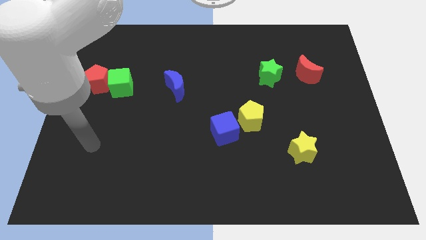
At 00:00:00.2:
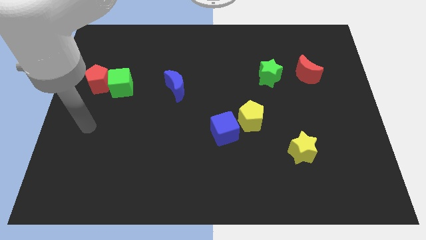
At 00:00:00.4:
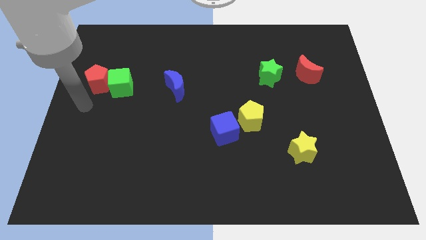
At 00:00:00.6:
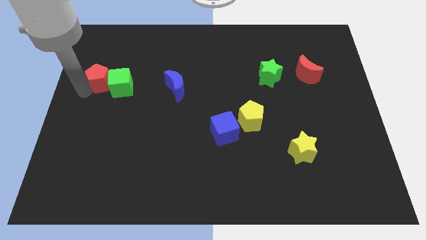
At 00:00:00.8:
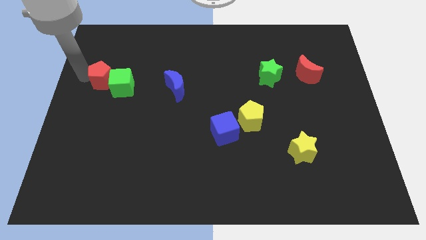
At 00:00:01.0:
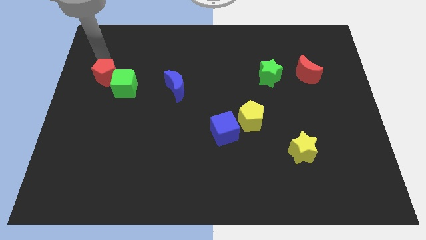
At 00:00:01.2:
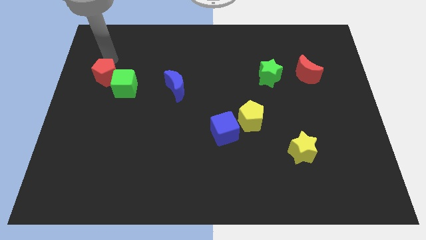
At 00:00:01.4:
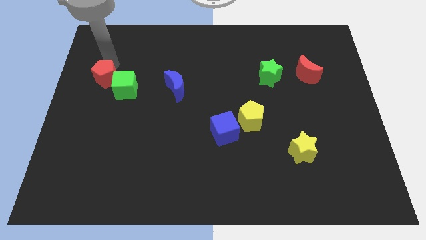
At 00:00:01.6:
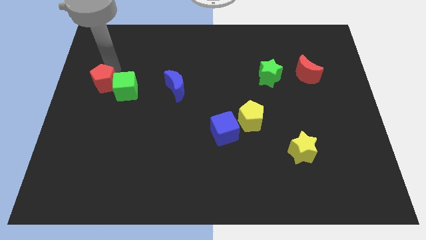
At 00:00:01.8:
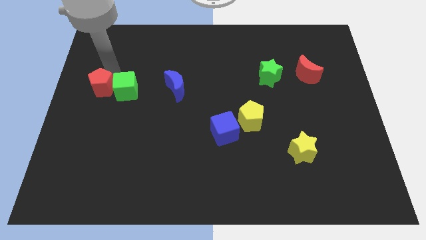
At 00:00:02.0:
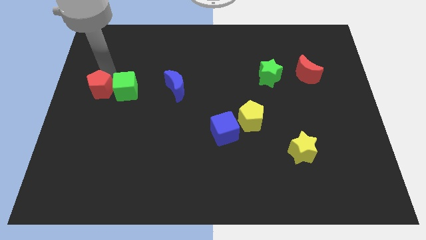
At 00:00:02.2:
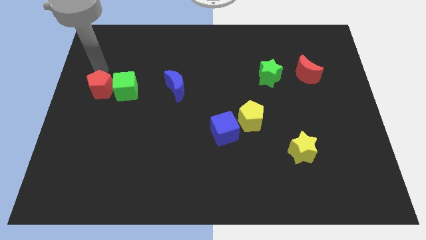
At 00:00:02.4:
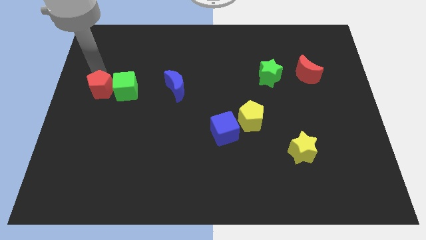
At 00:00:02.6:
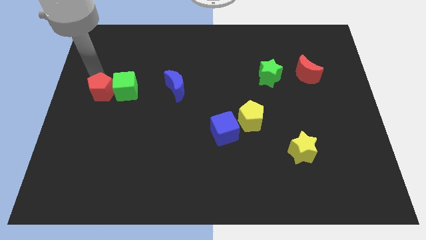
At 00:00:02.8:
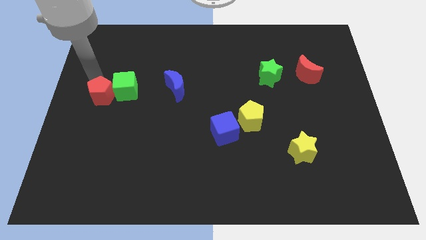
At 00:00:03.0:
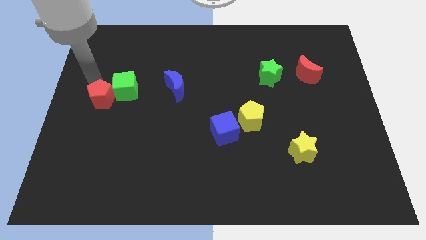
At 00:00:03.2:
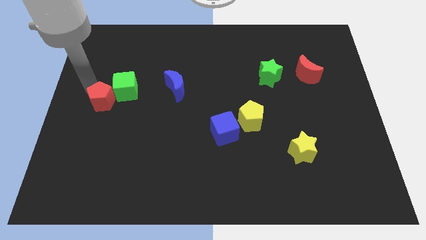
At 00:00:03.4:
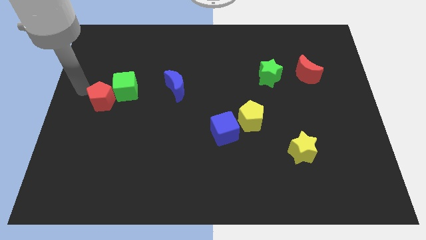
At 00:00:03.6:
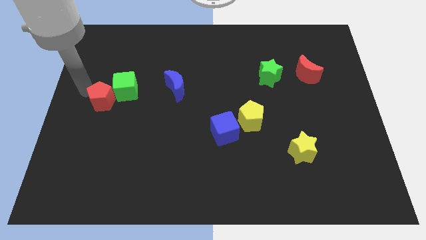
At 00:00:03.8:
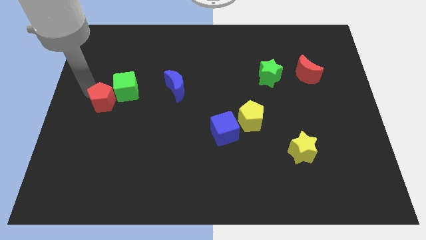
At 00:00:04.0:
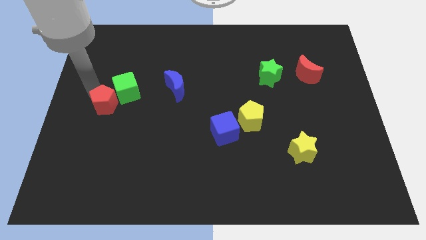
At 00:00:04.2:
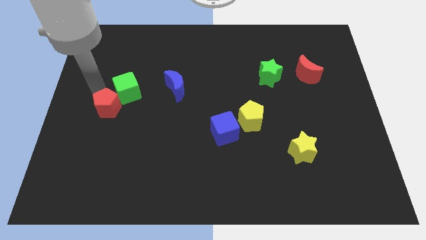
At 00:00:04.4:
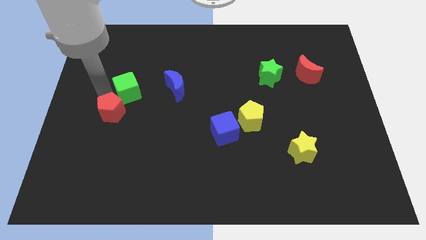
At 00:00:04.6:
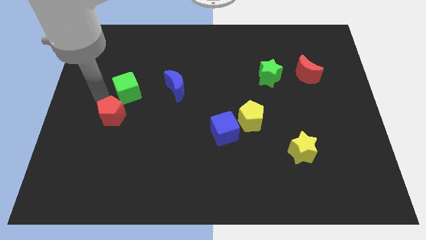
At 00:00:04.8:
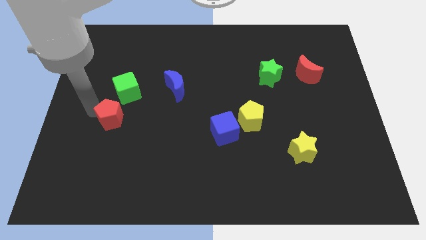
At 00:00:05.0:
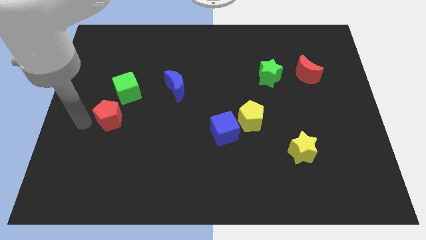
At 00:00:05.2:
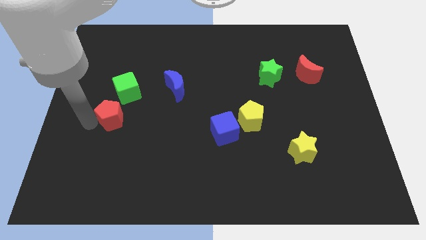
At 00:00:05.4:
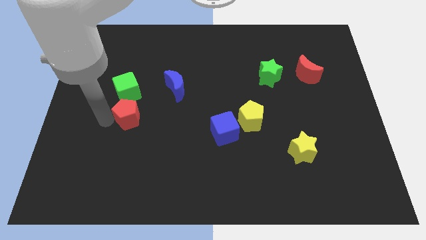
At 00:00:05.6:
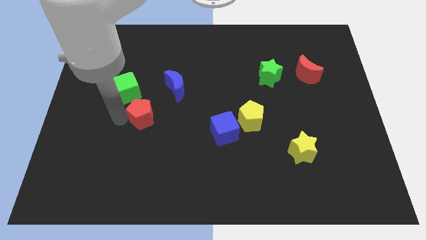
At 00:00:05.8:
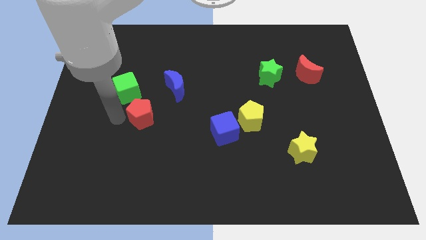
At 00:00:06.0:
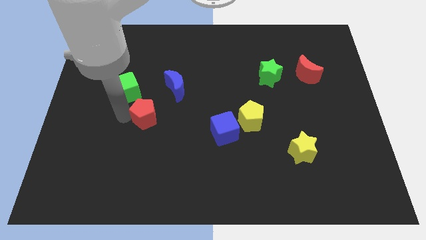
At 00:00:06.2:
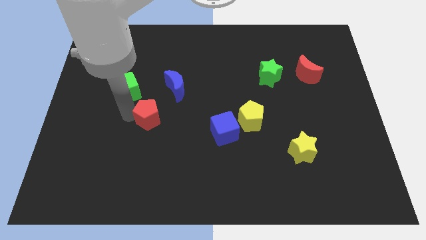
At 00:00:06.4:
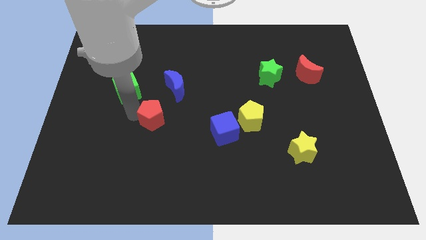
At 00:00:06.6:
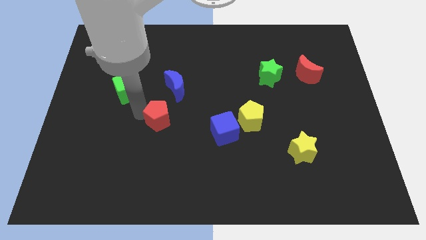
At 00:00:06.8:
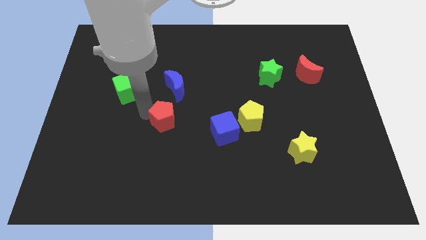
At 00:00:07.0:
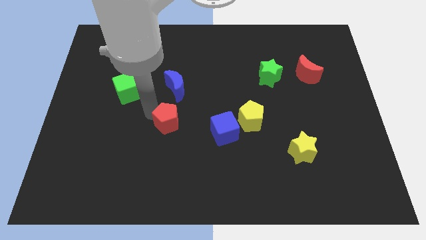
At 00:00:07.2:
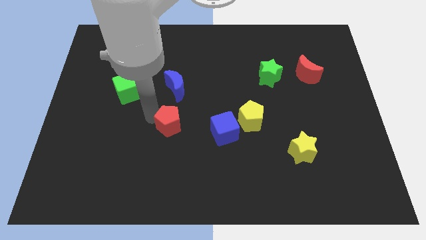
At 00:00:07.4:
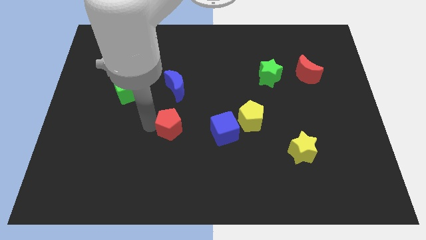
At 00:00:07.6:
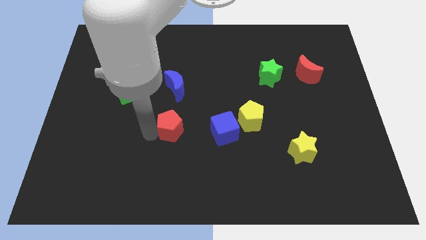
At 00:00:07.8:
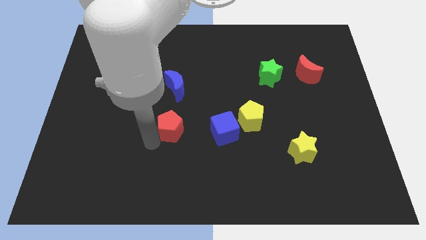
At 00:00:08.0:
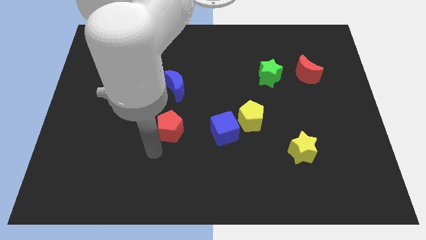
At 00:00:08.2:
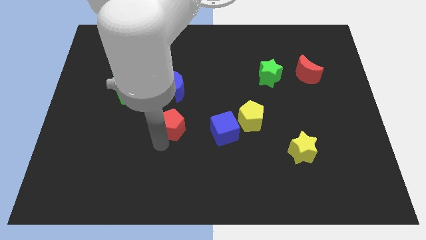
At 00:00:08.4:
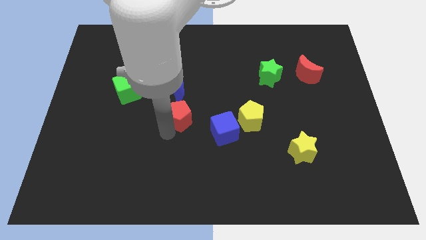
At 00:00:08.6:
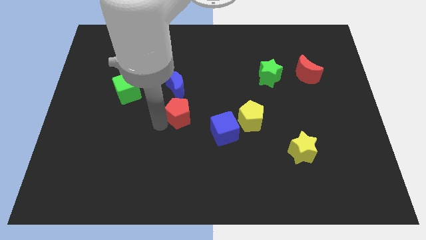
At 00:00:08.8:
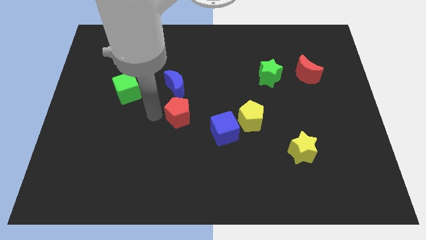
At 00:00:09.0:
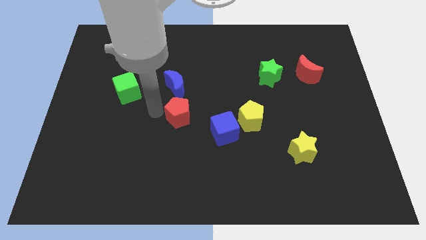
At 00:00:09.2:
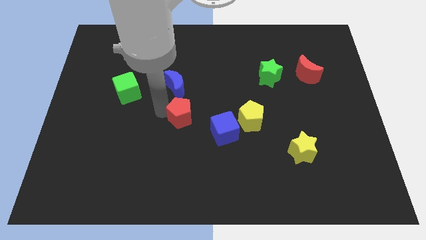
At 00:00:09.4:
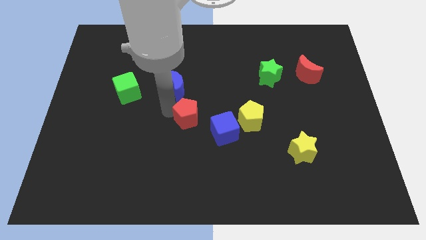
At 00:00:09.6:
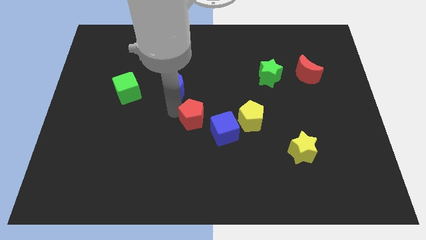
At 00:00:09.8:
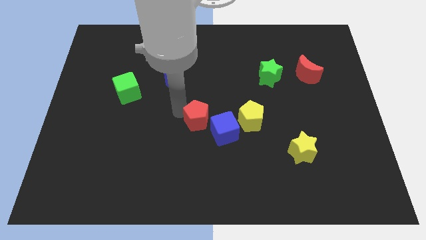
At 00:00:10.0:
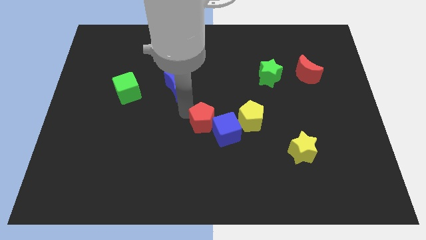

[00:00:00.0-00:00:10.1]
push the red pentagon towards the blue cube

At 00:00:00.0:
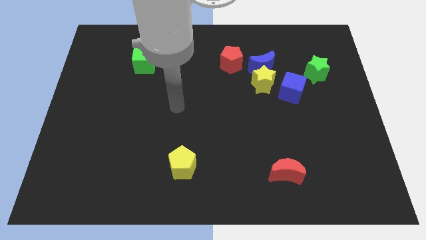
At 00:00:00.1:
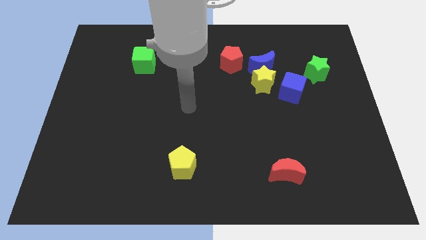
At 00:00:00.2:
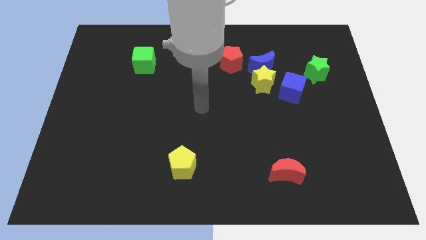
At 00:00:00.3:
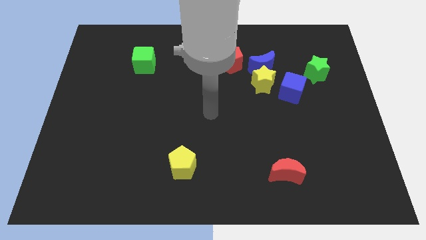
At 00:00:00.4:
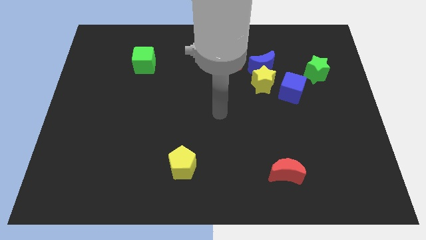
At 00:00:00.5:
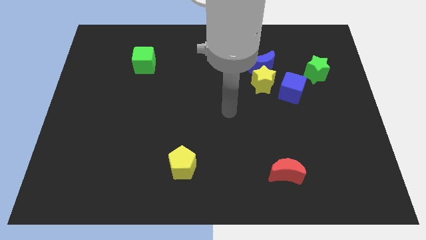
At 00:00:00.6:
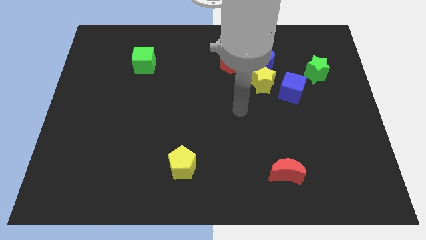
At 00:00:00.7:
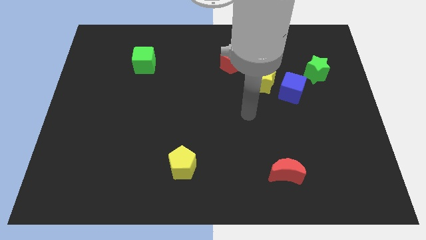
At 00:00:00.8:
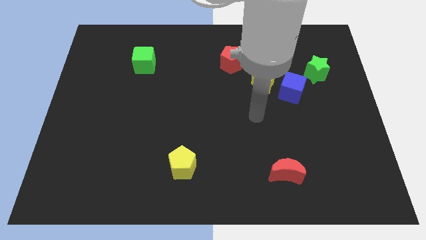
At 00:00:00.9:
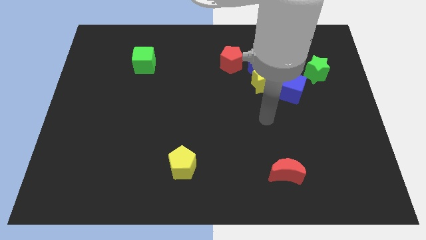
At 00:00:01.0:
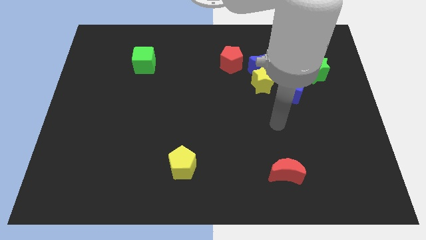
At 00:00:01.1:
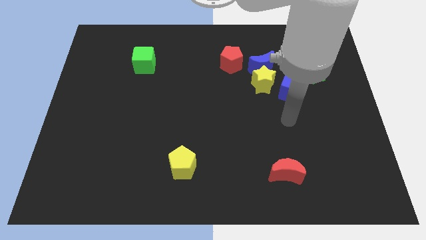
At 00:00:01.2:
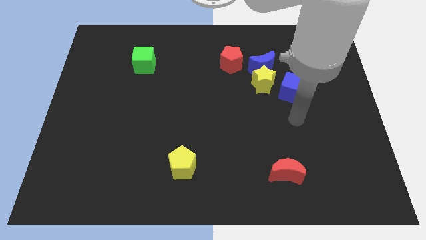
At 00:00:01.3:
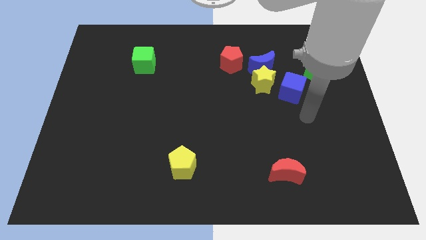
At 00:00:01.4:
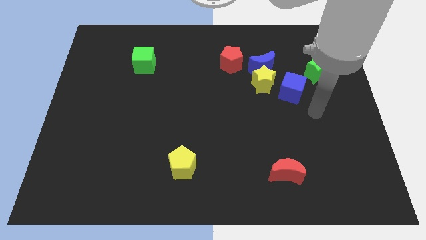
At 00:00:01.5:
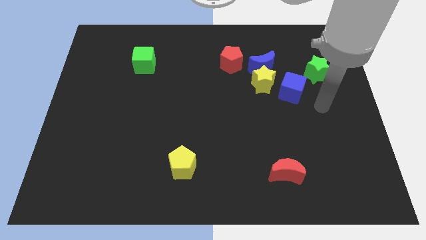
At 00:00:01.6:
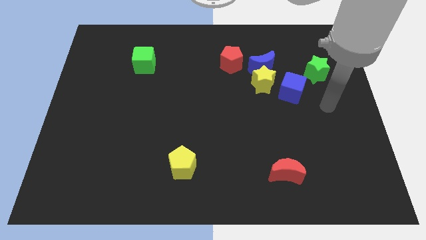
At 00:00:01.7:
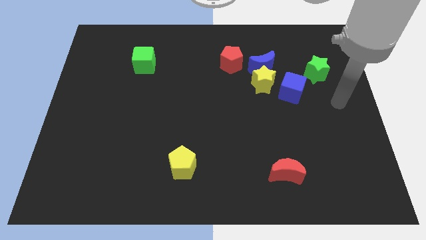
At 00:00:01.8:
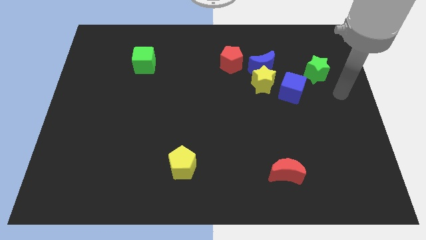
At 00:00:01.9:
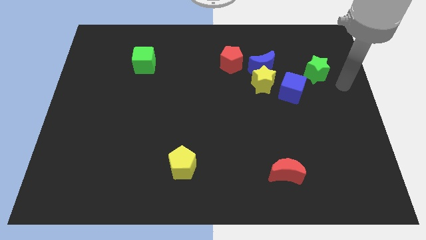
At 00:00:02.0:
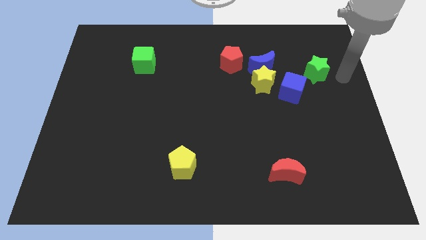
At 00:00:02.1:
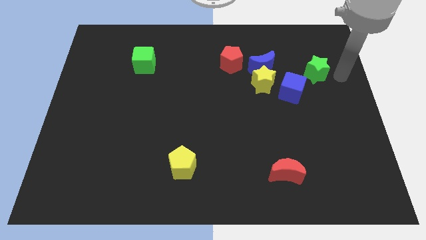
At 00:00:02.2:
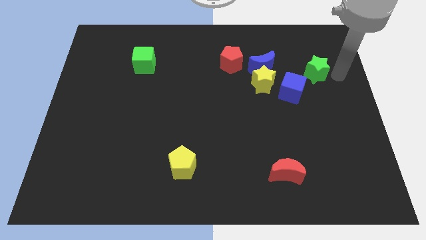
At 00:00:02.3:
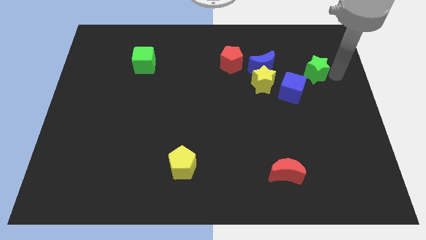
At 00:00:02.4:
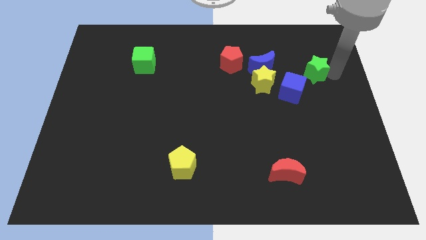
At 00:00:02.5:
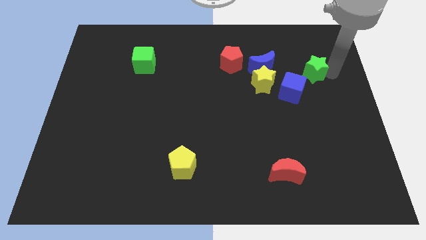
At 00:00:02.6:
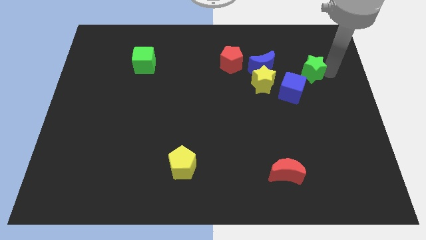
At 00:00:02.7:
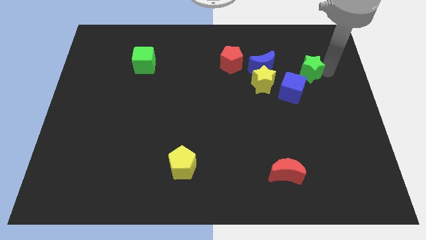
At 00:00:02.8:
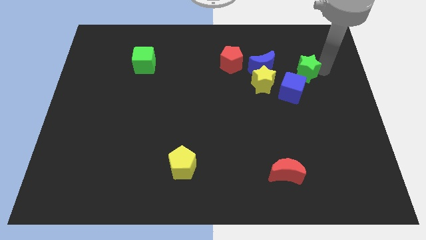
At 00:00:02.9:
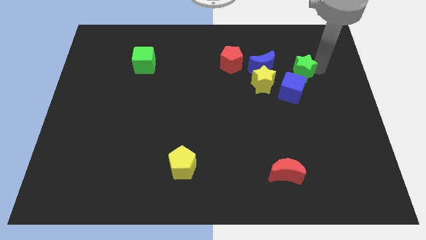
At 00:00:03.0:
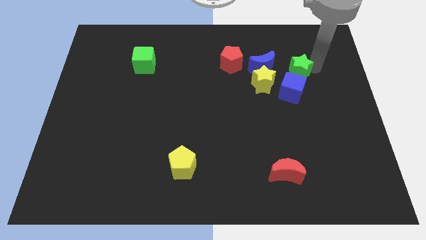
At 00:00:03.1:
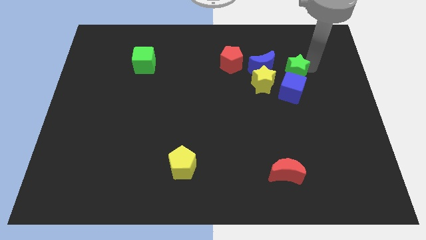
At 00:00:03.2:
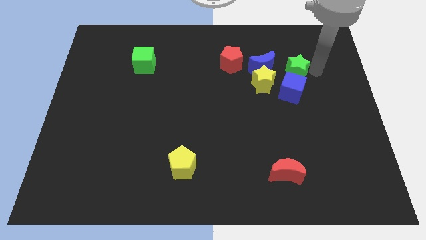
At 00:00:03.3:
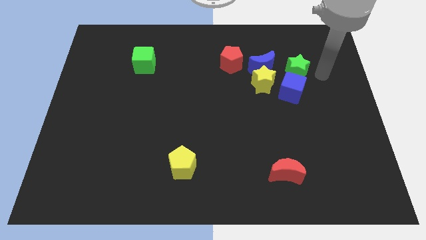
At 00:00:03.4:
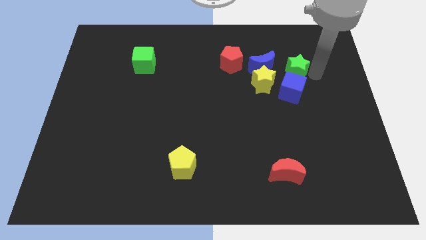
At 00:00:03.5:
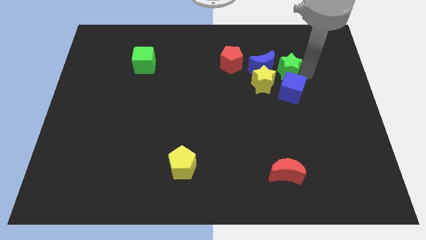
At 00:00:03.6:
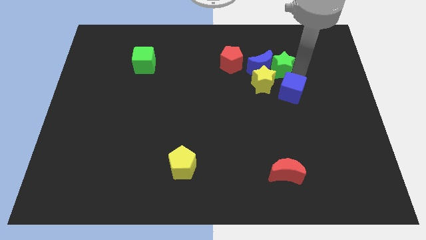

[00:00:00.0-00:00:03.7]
slide the green star next to the blue moon
